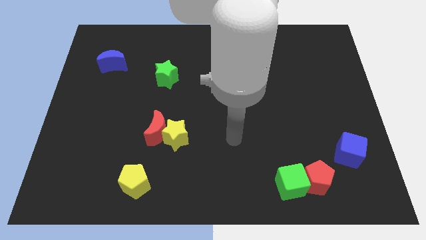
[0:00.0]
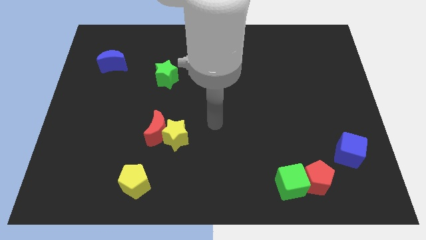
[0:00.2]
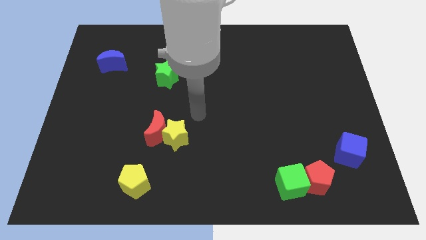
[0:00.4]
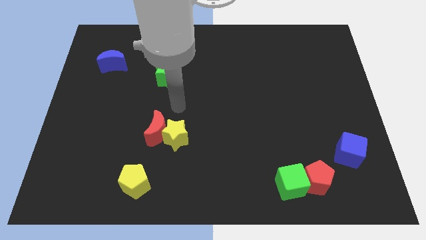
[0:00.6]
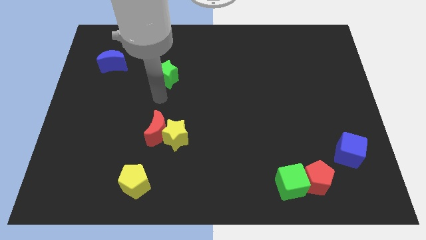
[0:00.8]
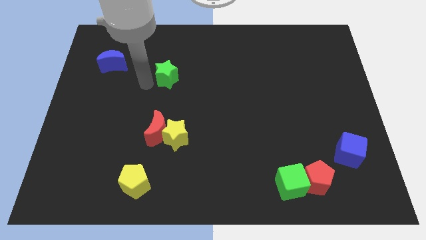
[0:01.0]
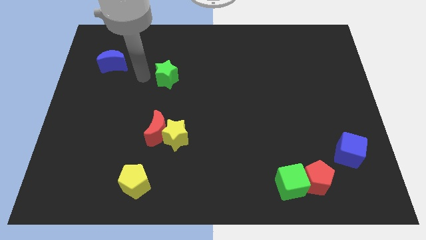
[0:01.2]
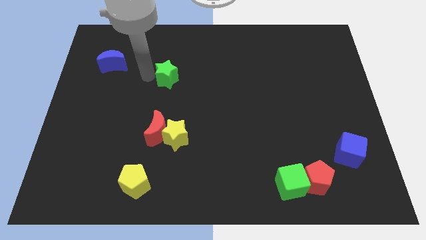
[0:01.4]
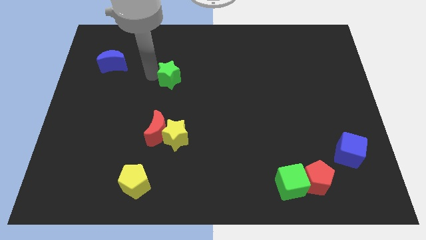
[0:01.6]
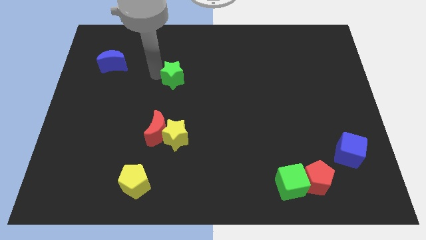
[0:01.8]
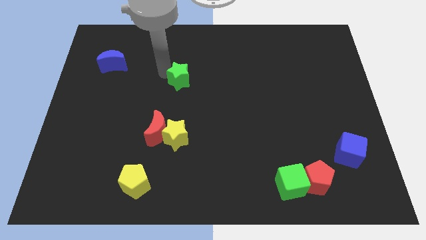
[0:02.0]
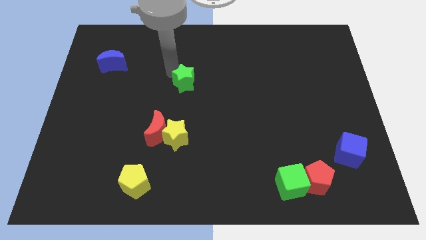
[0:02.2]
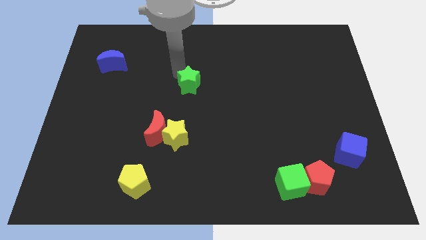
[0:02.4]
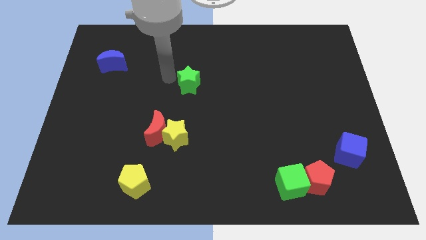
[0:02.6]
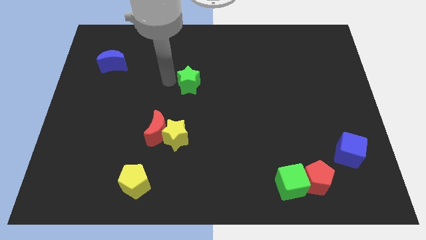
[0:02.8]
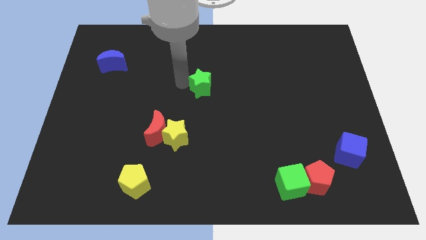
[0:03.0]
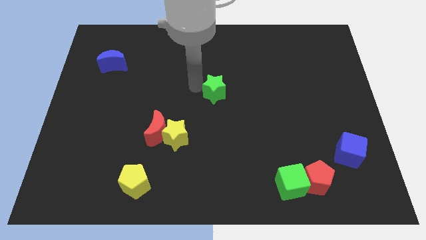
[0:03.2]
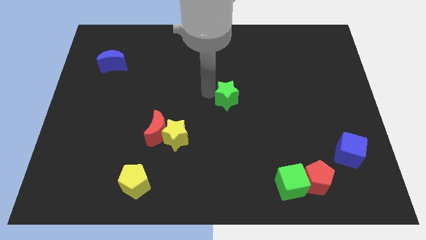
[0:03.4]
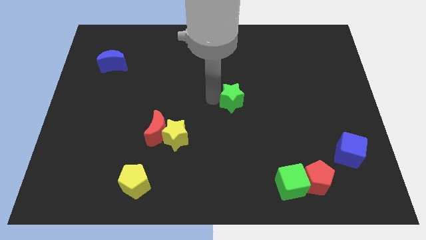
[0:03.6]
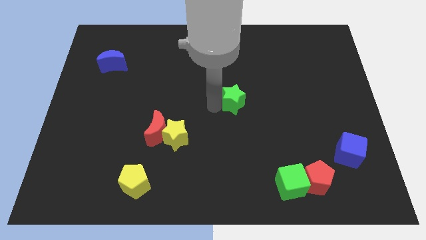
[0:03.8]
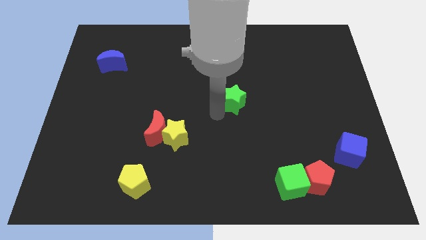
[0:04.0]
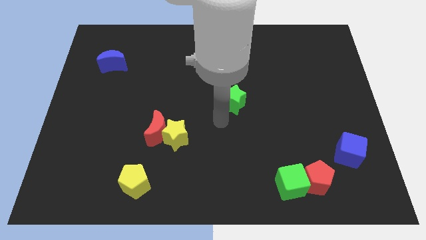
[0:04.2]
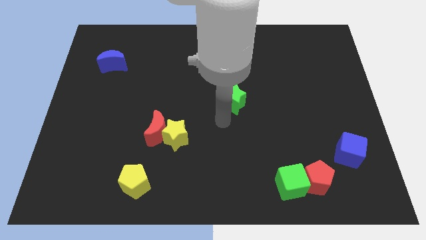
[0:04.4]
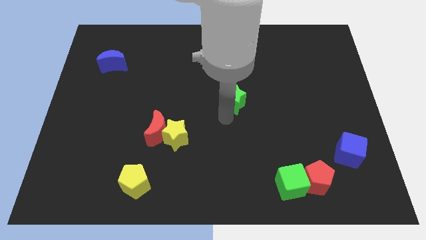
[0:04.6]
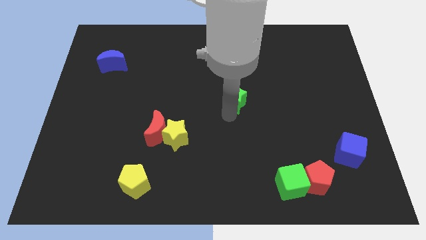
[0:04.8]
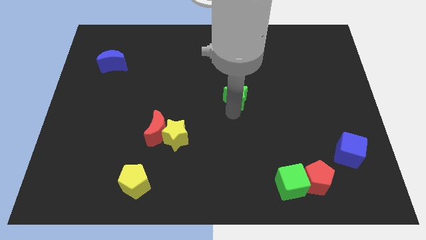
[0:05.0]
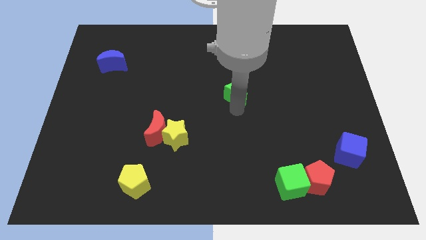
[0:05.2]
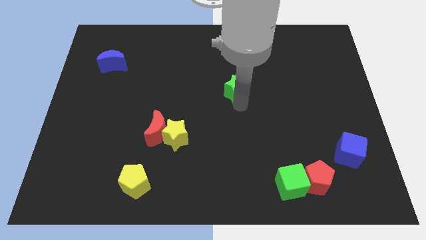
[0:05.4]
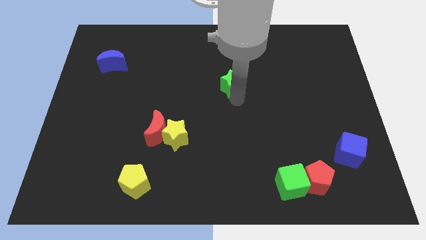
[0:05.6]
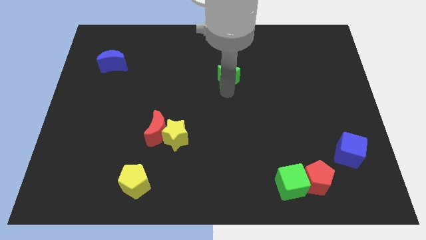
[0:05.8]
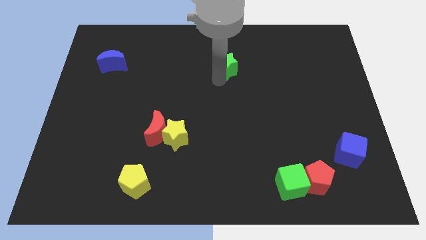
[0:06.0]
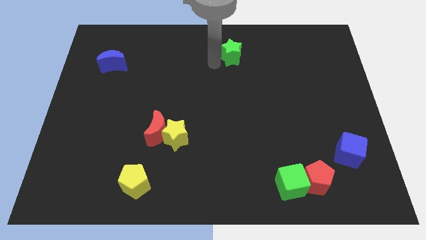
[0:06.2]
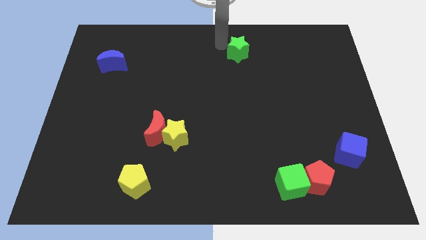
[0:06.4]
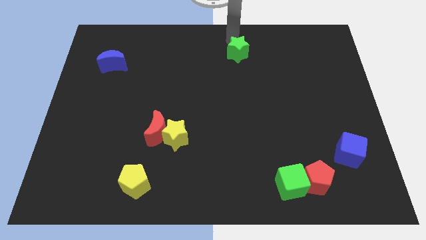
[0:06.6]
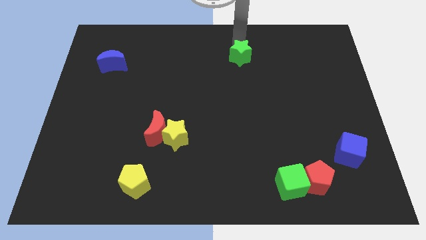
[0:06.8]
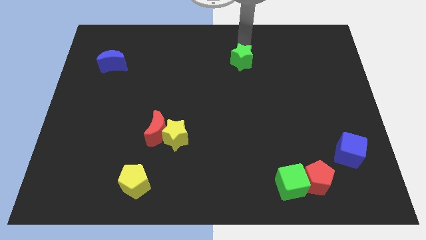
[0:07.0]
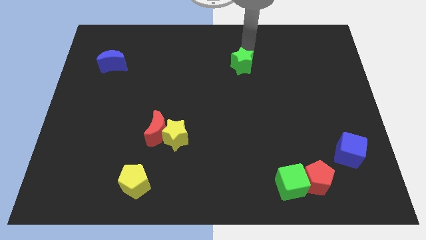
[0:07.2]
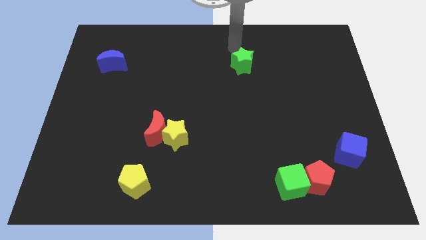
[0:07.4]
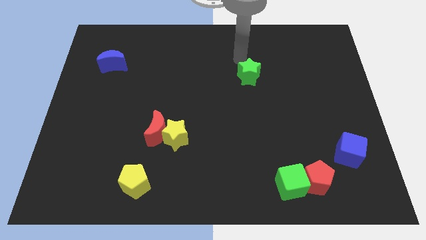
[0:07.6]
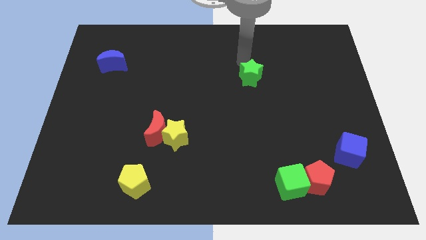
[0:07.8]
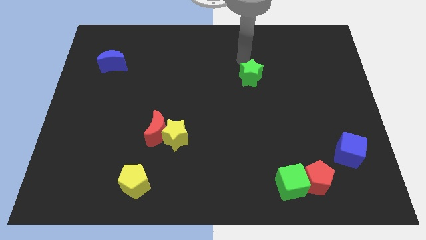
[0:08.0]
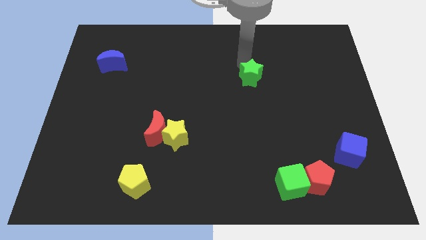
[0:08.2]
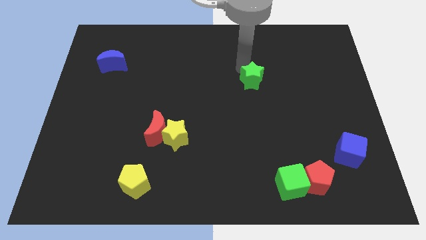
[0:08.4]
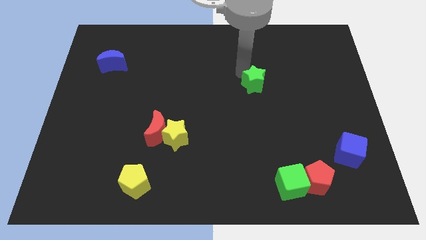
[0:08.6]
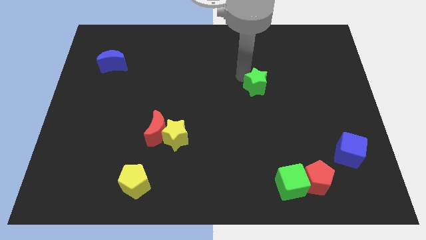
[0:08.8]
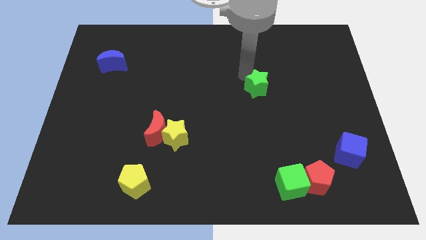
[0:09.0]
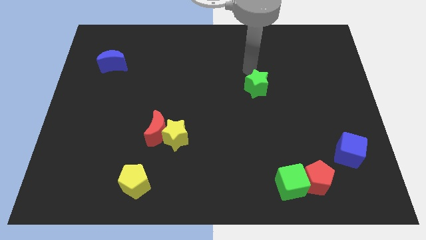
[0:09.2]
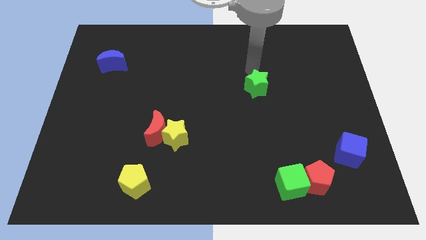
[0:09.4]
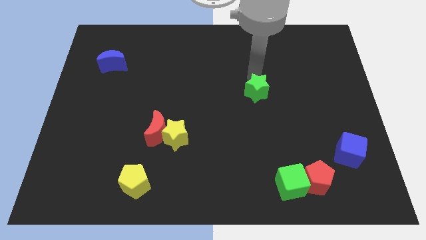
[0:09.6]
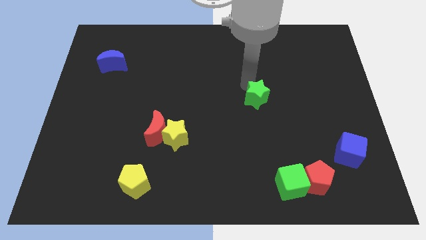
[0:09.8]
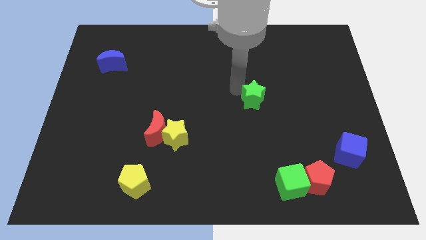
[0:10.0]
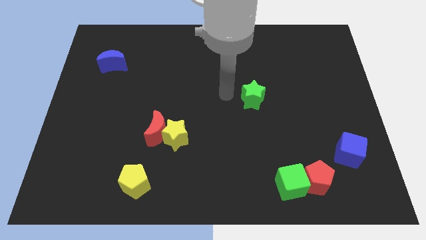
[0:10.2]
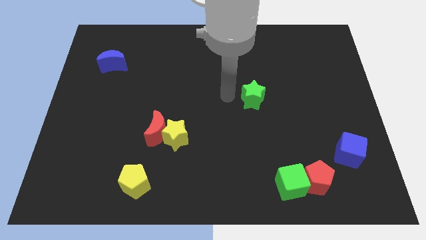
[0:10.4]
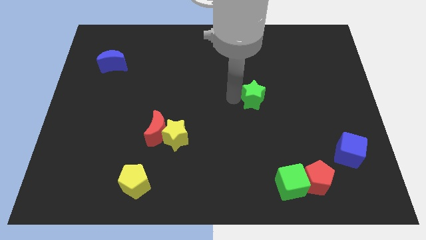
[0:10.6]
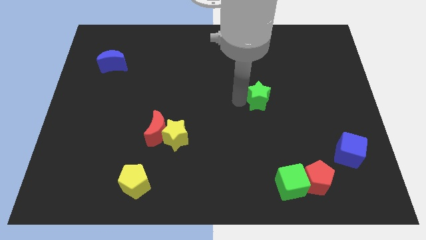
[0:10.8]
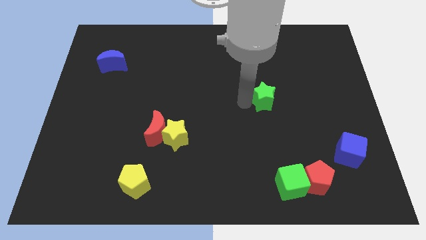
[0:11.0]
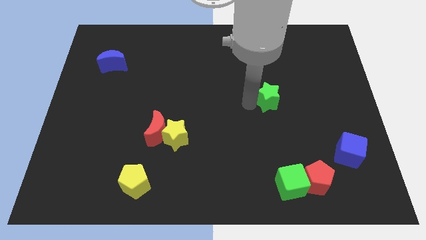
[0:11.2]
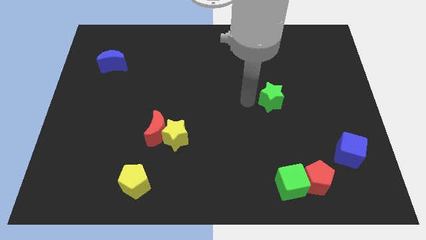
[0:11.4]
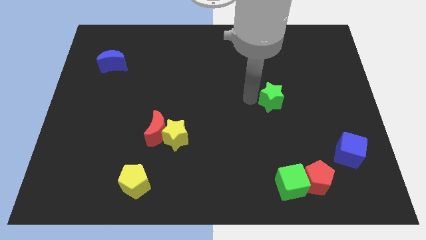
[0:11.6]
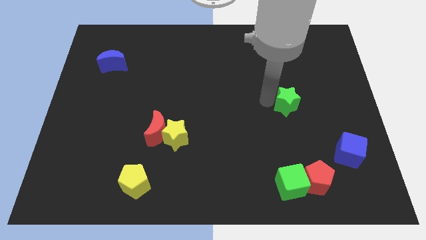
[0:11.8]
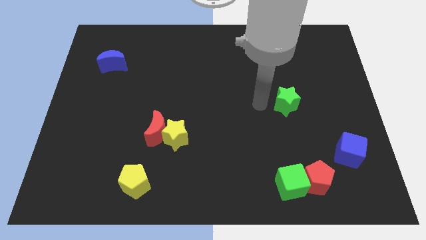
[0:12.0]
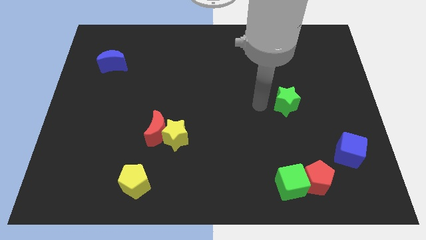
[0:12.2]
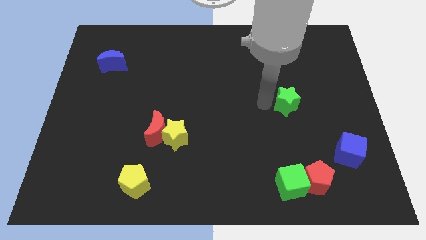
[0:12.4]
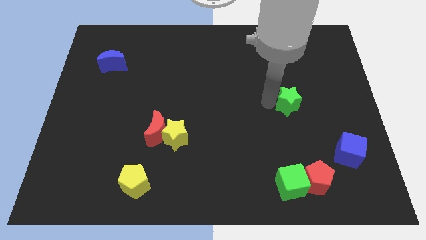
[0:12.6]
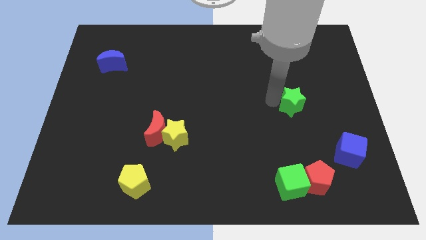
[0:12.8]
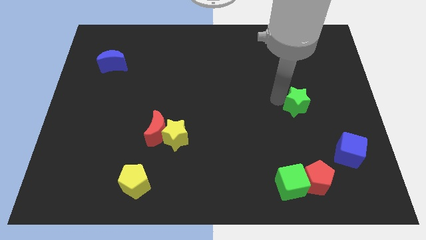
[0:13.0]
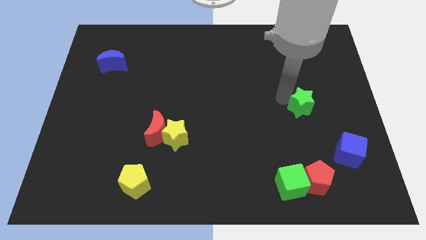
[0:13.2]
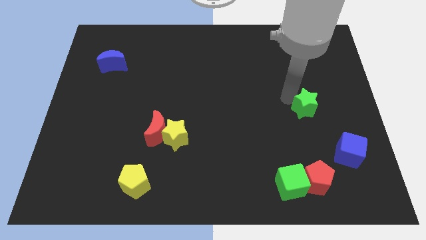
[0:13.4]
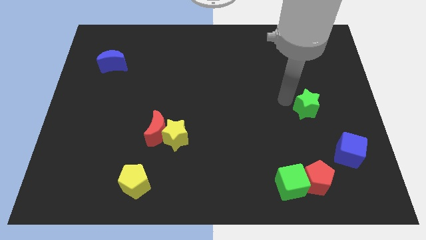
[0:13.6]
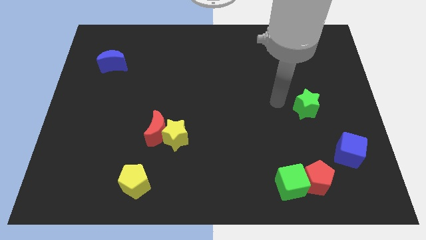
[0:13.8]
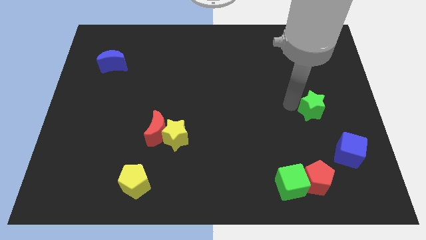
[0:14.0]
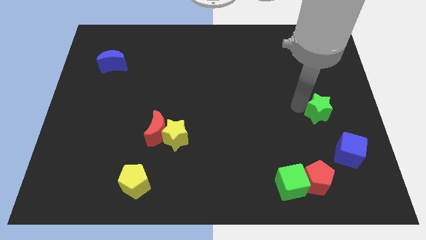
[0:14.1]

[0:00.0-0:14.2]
put the green star above the blue cube

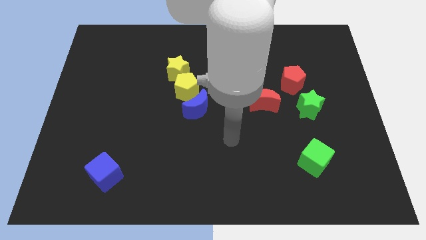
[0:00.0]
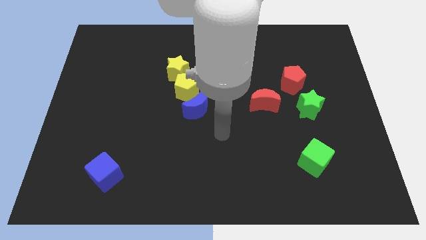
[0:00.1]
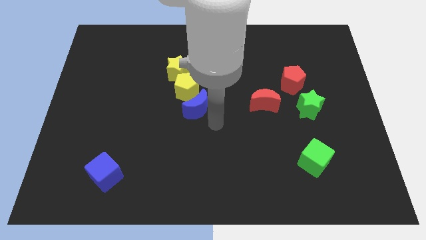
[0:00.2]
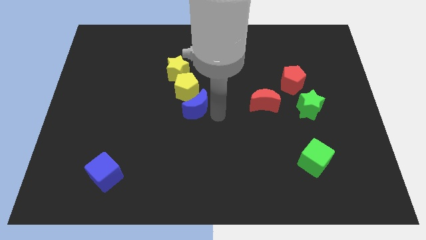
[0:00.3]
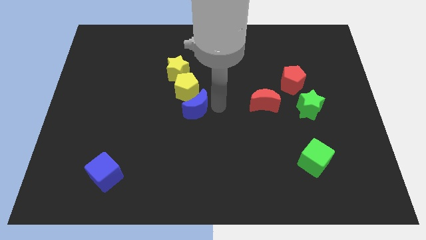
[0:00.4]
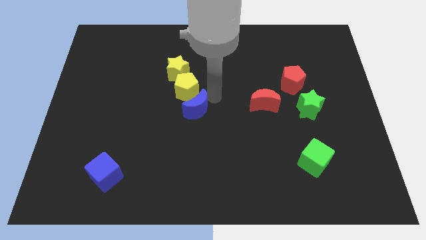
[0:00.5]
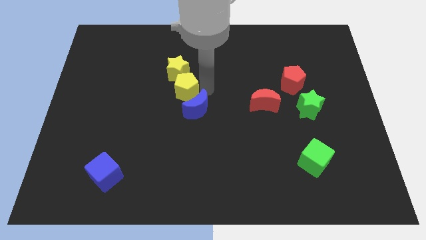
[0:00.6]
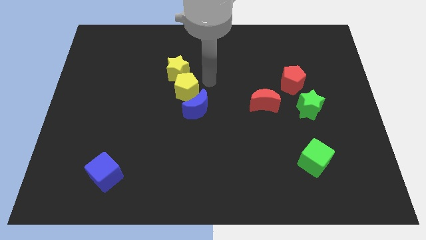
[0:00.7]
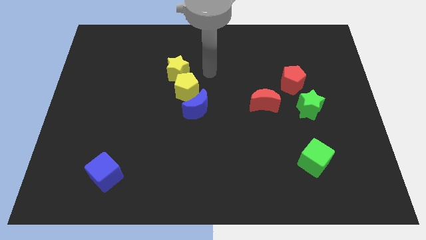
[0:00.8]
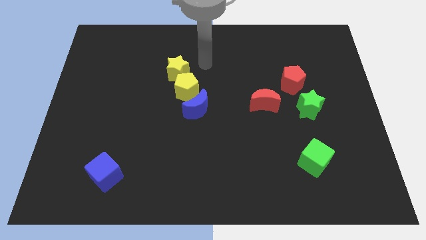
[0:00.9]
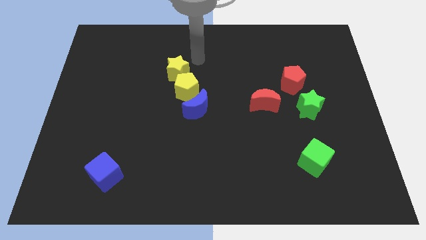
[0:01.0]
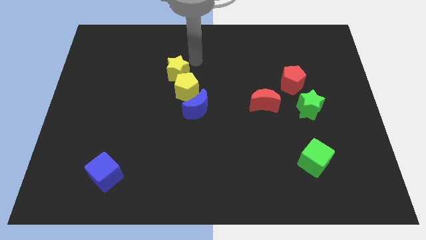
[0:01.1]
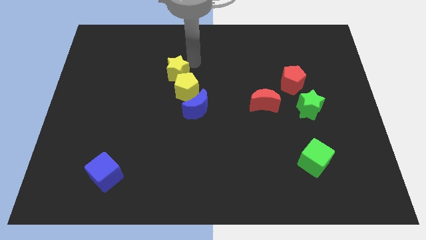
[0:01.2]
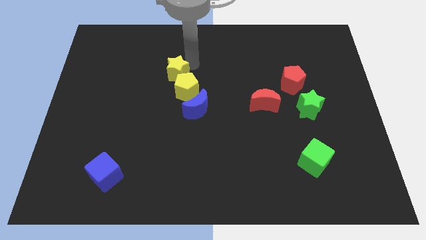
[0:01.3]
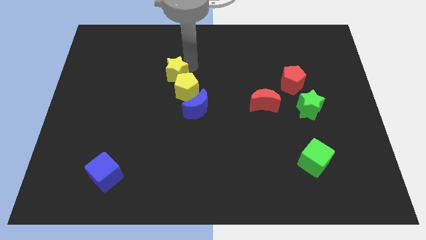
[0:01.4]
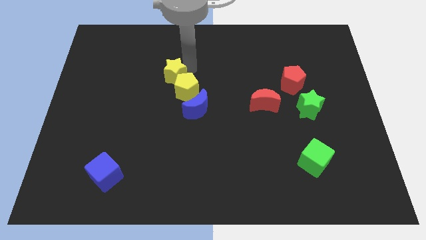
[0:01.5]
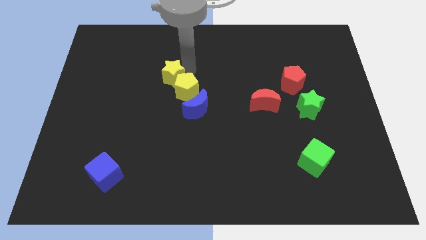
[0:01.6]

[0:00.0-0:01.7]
move the yellow star left of the yellow pentagon
